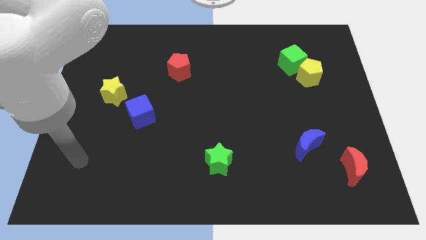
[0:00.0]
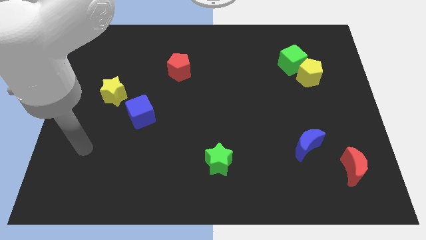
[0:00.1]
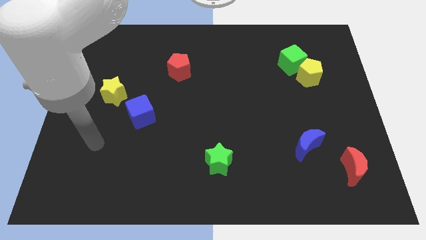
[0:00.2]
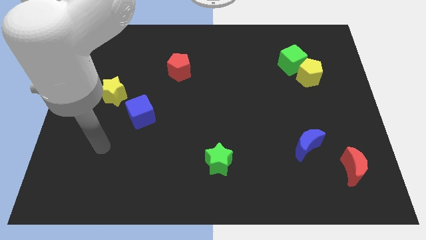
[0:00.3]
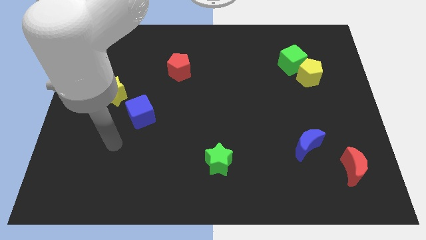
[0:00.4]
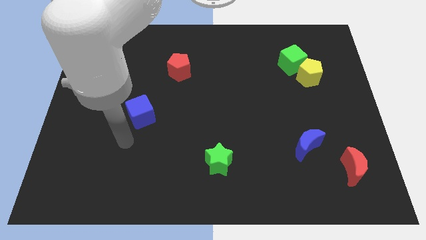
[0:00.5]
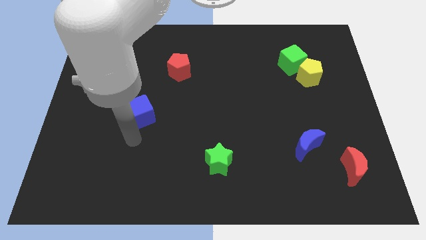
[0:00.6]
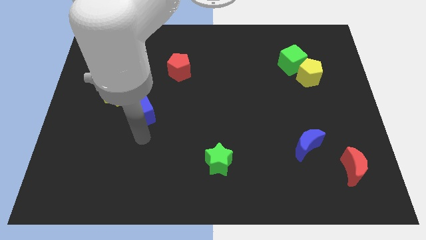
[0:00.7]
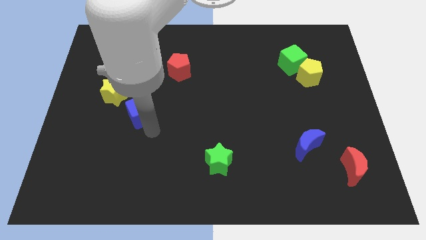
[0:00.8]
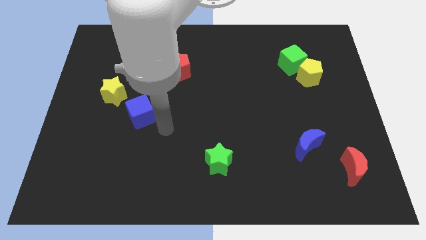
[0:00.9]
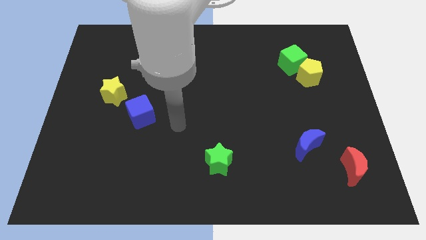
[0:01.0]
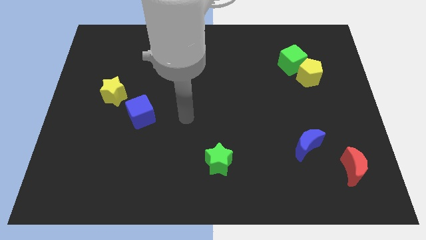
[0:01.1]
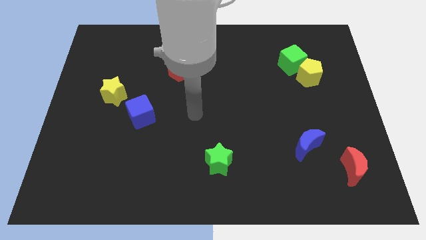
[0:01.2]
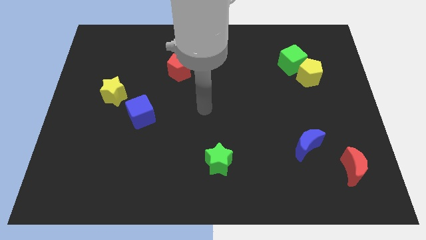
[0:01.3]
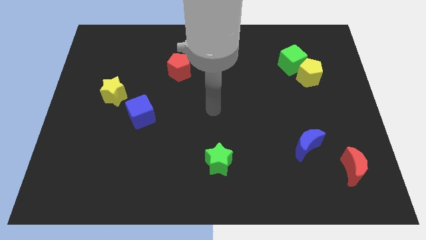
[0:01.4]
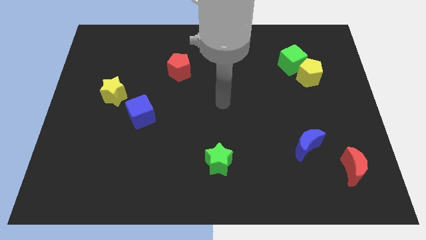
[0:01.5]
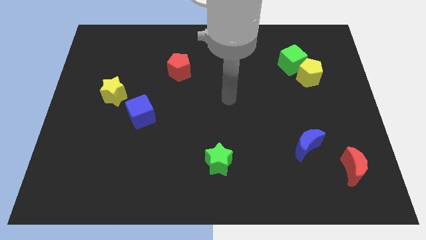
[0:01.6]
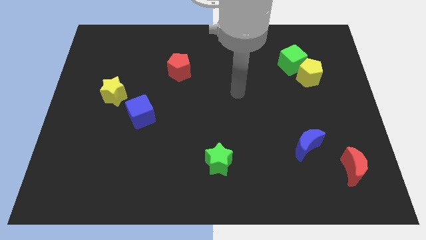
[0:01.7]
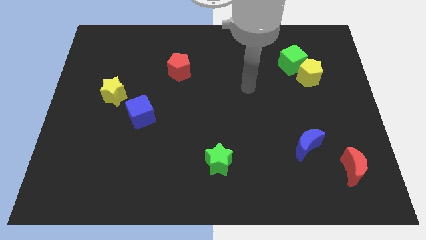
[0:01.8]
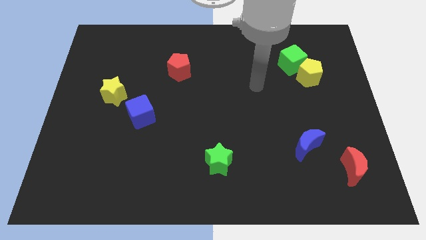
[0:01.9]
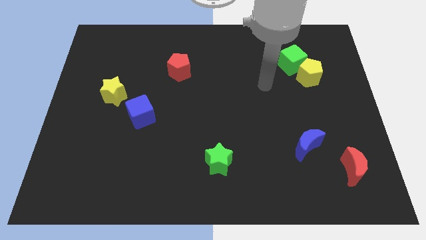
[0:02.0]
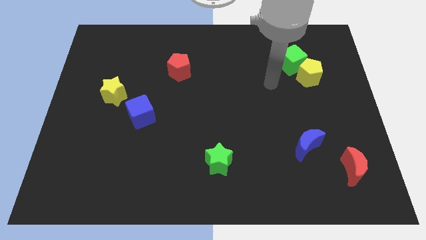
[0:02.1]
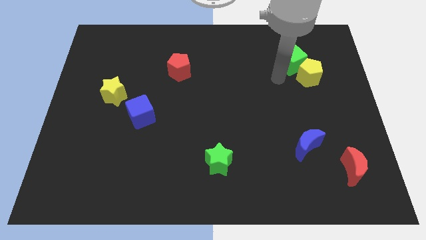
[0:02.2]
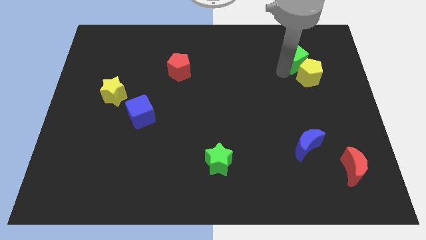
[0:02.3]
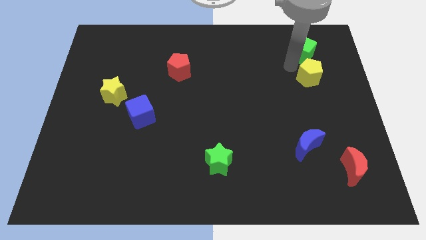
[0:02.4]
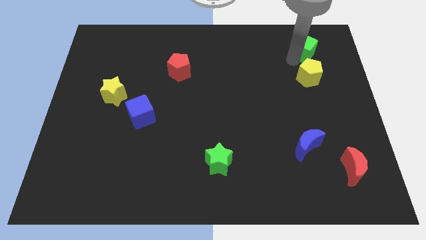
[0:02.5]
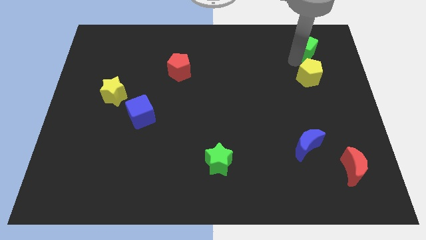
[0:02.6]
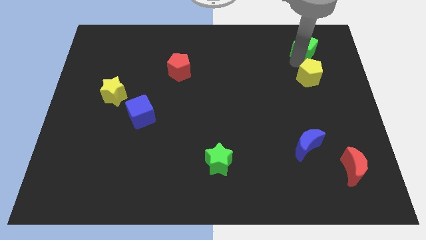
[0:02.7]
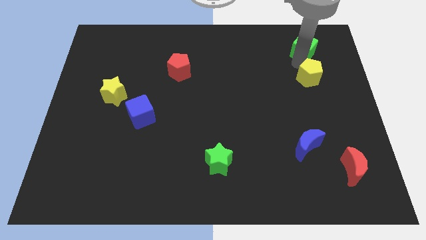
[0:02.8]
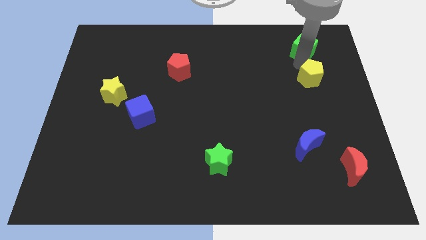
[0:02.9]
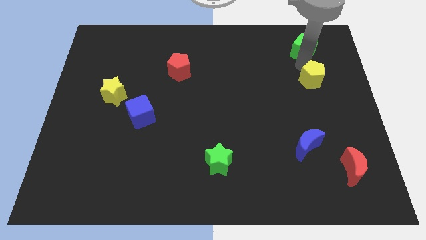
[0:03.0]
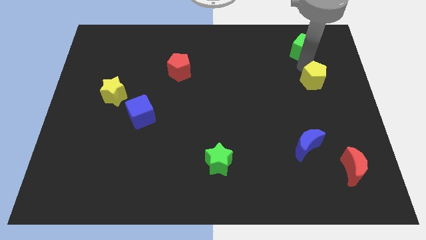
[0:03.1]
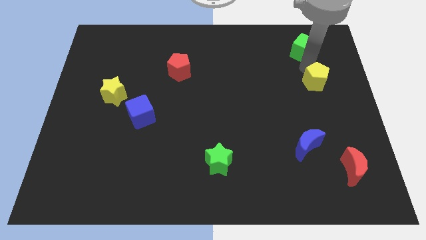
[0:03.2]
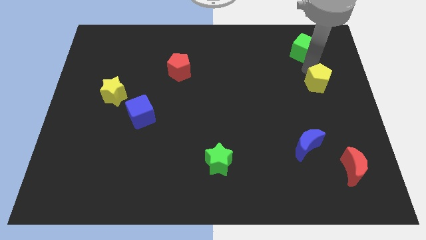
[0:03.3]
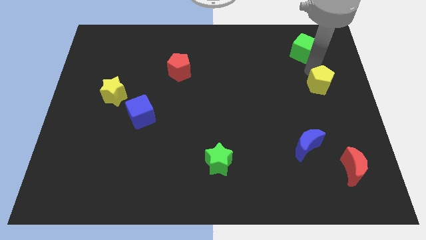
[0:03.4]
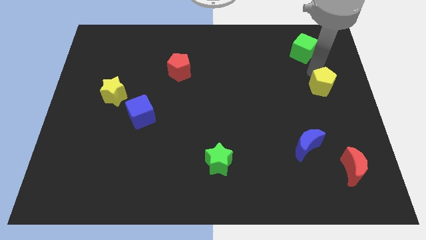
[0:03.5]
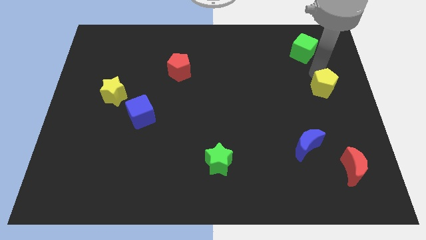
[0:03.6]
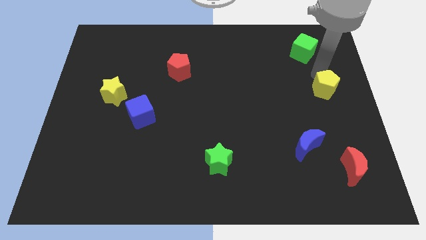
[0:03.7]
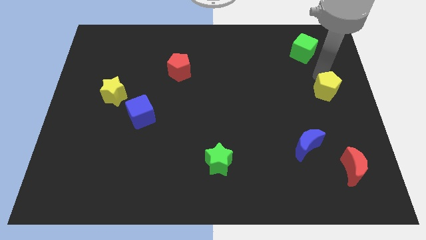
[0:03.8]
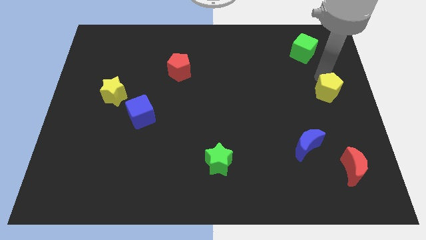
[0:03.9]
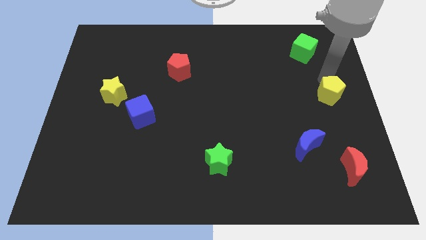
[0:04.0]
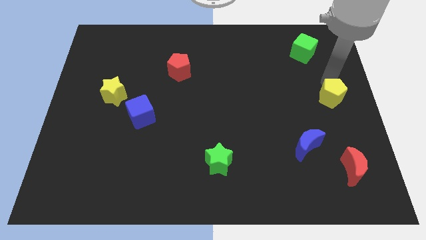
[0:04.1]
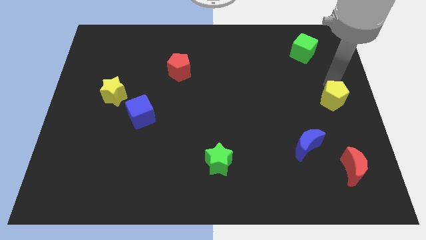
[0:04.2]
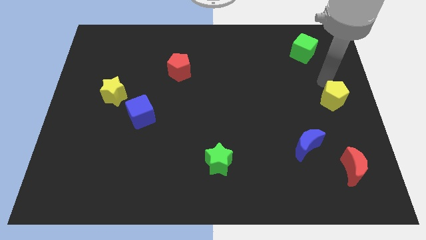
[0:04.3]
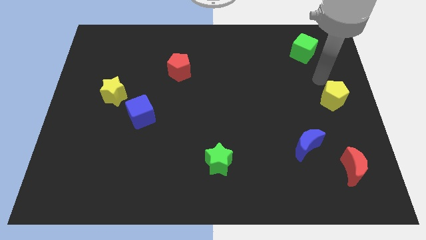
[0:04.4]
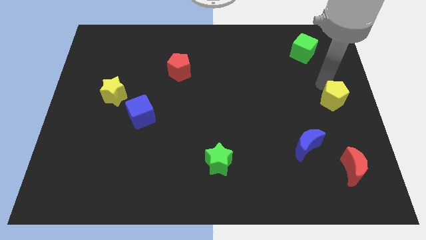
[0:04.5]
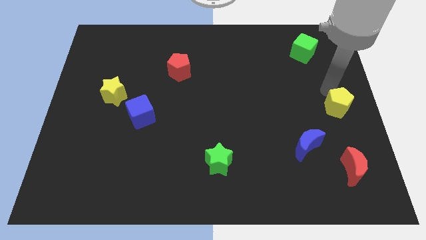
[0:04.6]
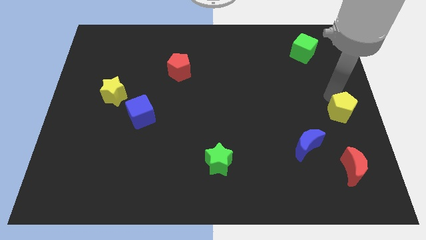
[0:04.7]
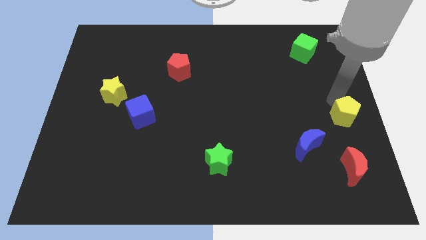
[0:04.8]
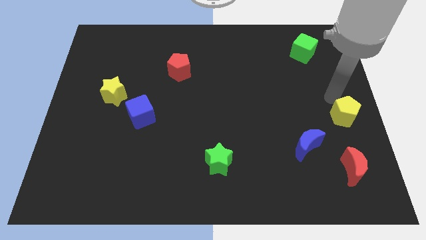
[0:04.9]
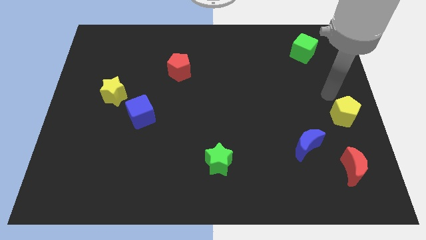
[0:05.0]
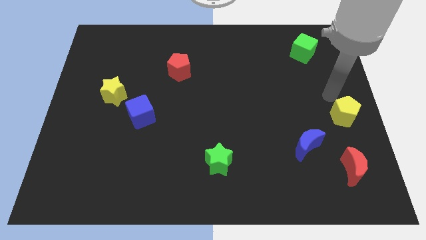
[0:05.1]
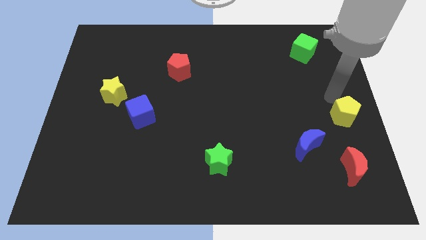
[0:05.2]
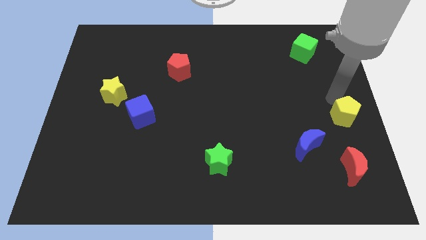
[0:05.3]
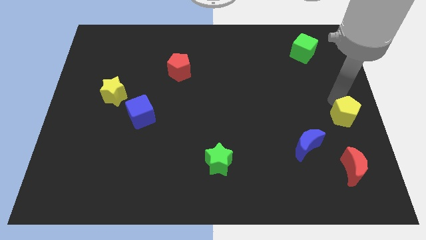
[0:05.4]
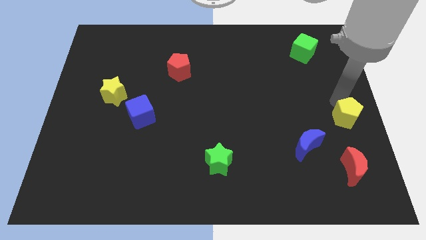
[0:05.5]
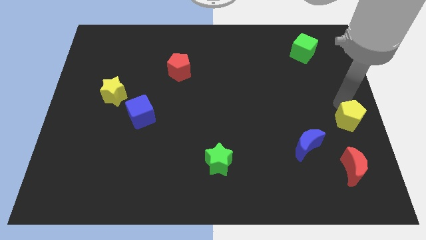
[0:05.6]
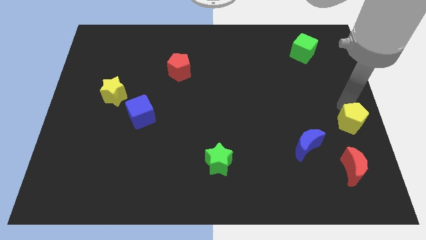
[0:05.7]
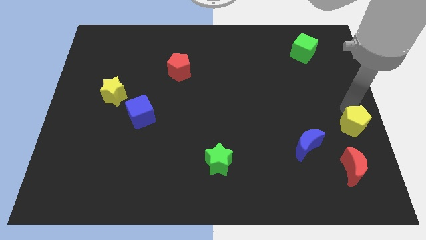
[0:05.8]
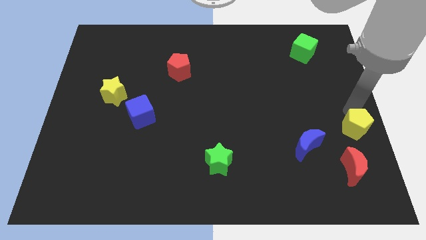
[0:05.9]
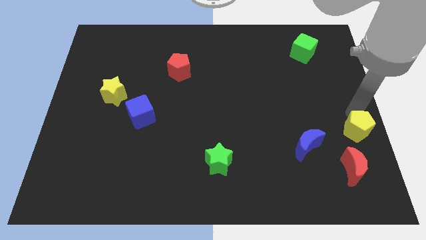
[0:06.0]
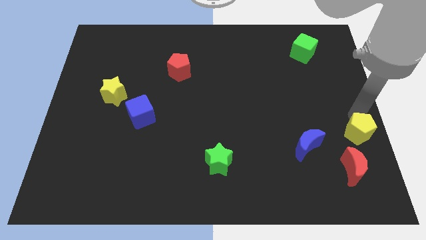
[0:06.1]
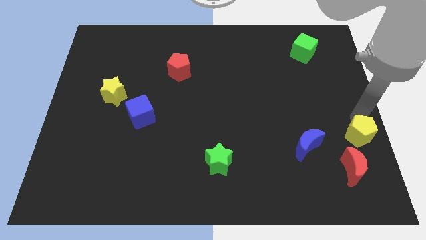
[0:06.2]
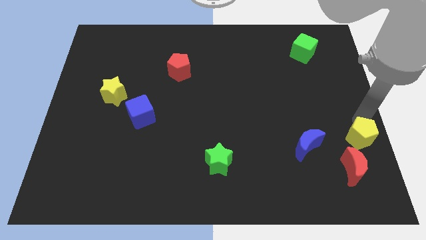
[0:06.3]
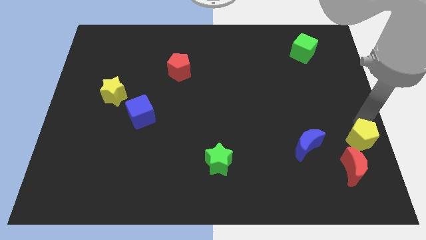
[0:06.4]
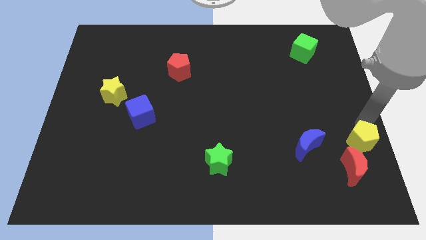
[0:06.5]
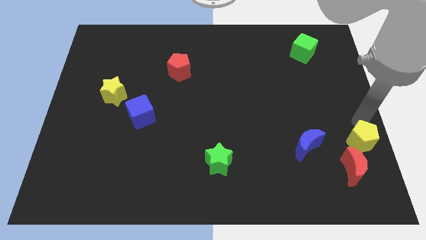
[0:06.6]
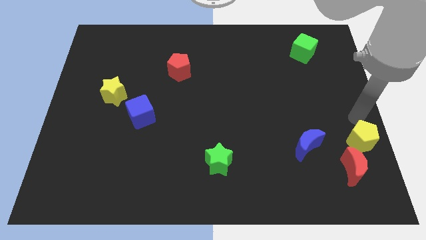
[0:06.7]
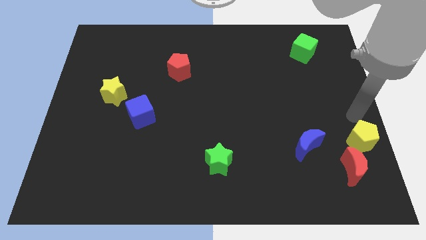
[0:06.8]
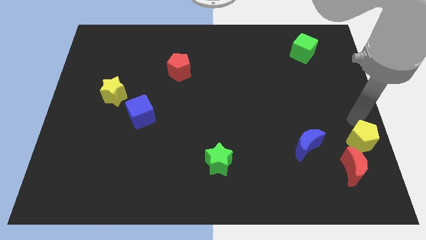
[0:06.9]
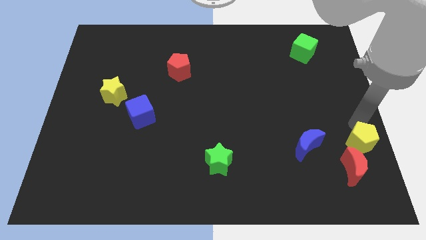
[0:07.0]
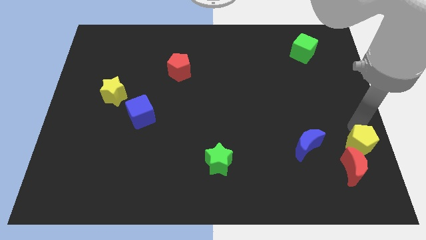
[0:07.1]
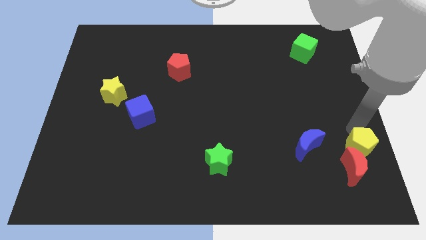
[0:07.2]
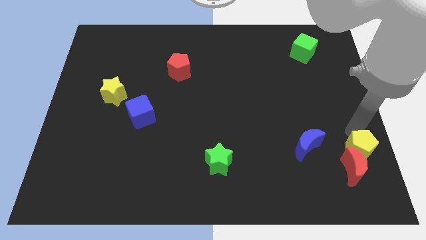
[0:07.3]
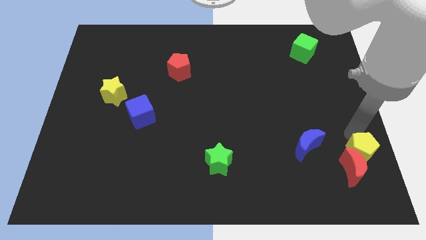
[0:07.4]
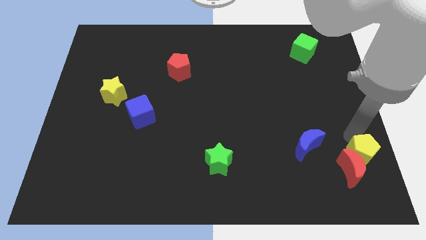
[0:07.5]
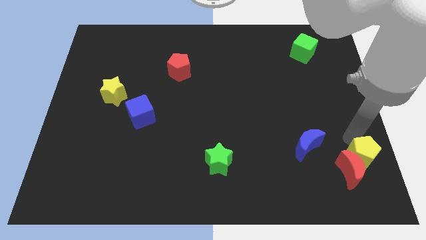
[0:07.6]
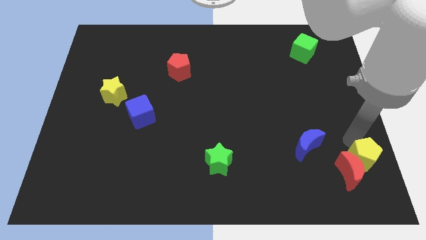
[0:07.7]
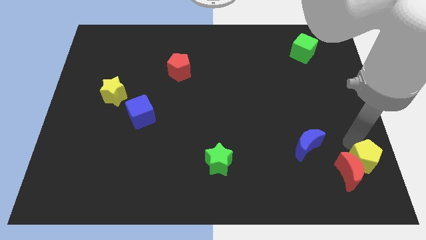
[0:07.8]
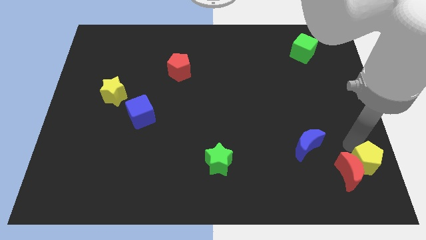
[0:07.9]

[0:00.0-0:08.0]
move the yellow pentagon to the bottom right corner
